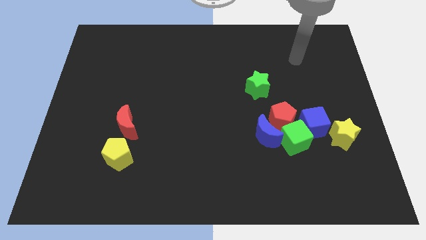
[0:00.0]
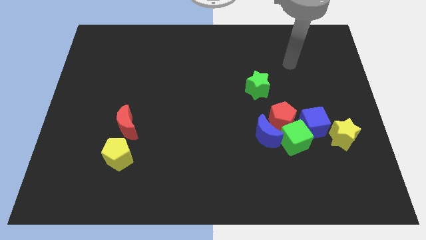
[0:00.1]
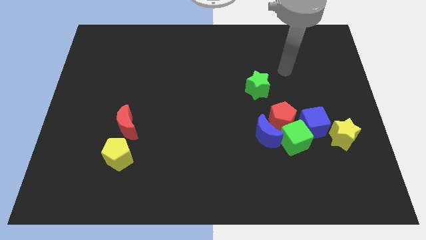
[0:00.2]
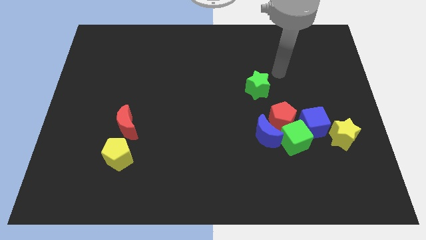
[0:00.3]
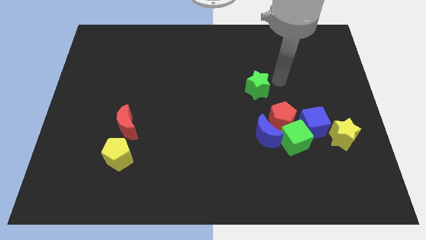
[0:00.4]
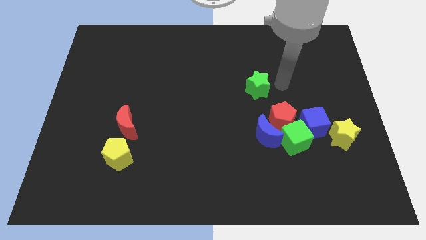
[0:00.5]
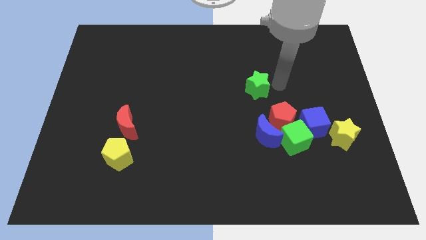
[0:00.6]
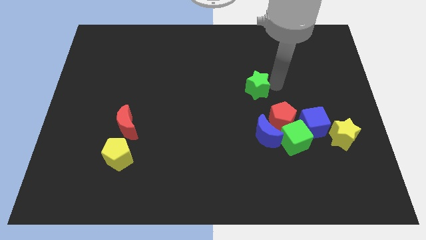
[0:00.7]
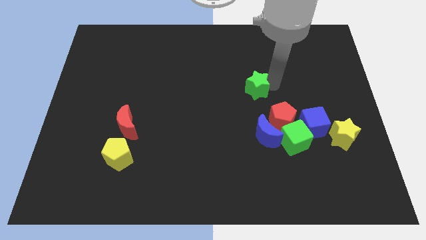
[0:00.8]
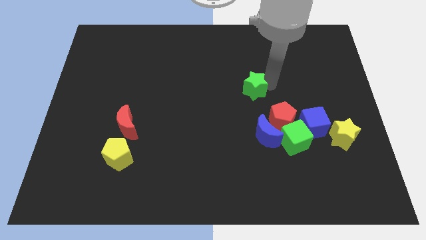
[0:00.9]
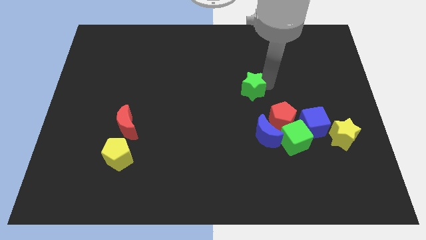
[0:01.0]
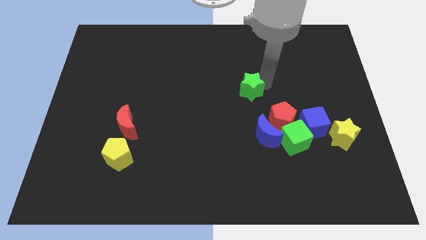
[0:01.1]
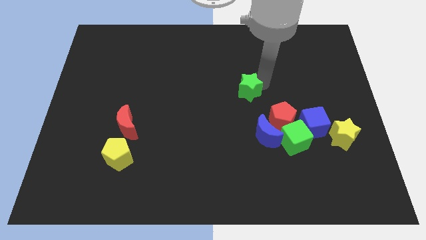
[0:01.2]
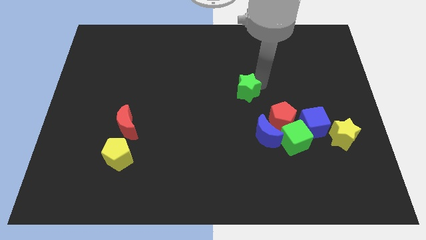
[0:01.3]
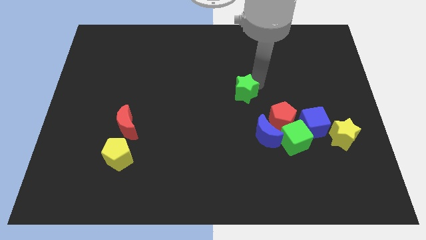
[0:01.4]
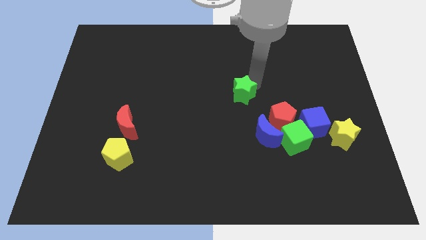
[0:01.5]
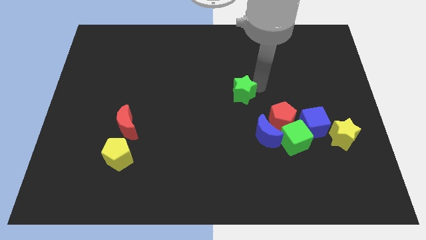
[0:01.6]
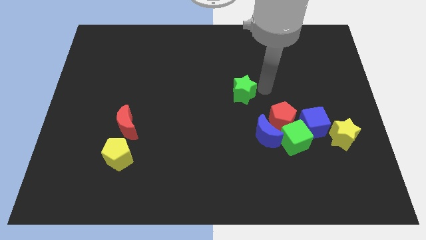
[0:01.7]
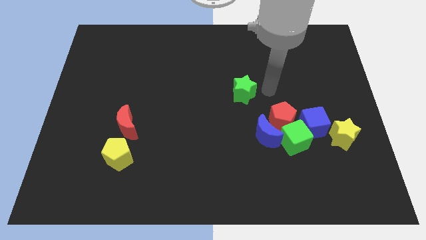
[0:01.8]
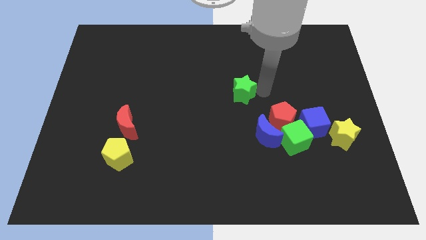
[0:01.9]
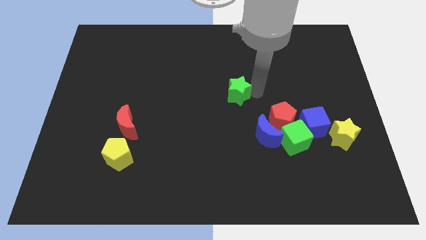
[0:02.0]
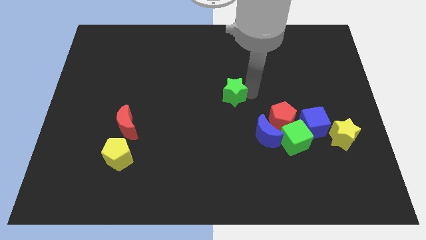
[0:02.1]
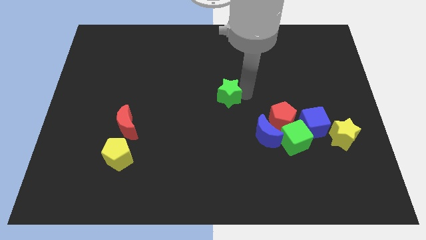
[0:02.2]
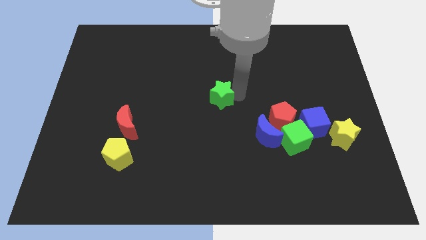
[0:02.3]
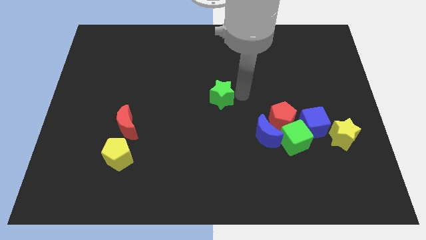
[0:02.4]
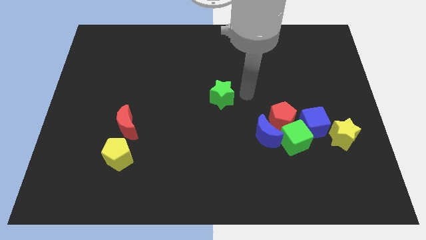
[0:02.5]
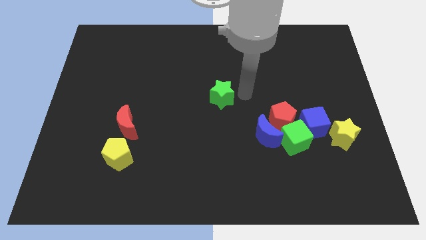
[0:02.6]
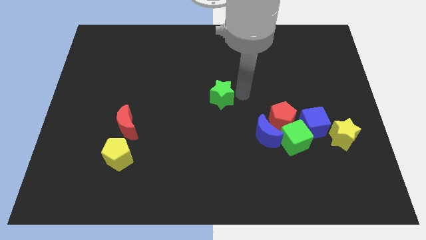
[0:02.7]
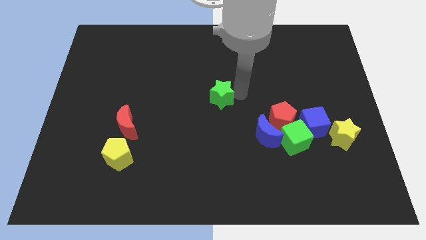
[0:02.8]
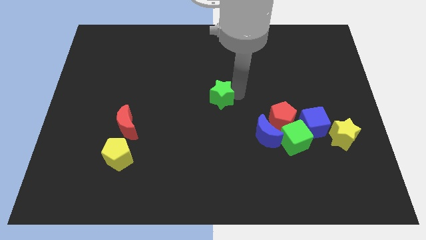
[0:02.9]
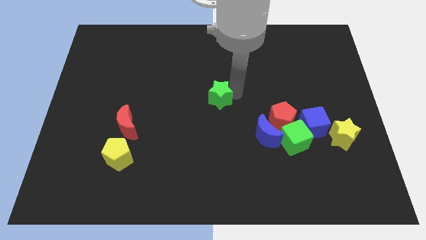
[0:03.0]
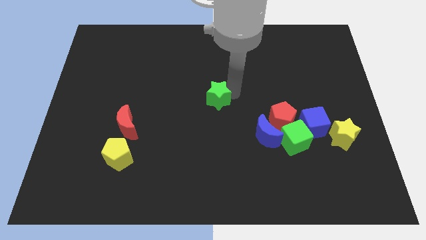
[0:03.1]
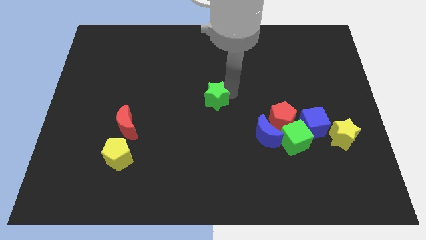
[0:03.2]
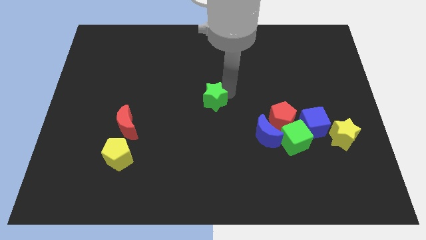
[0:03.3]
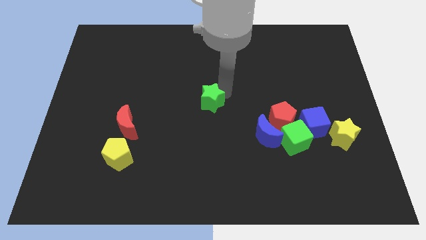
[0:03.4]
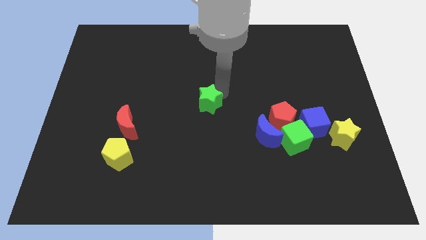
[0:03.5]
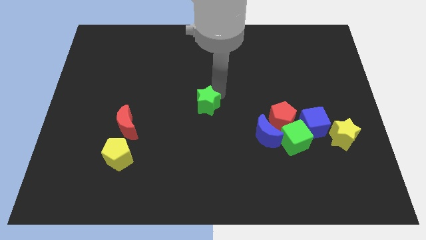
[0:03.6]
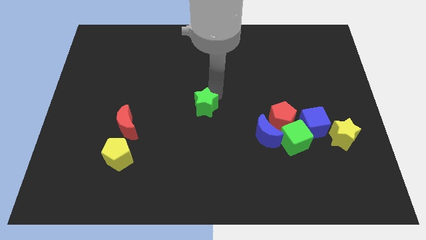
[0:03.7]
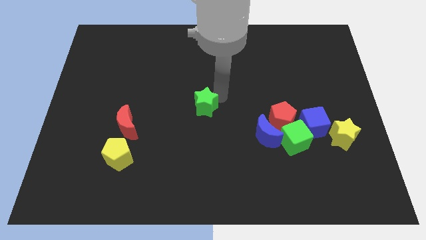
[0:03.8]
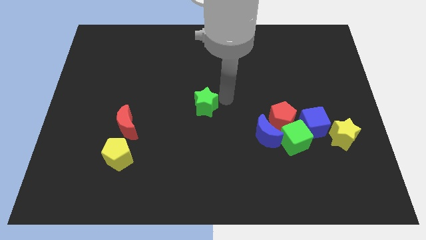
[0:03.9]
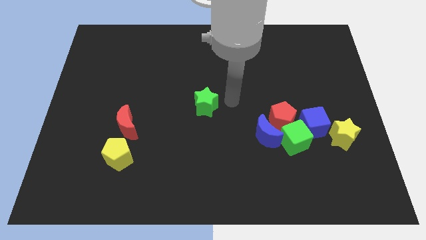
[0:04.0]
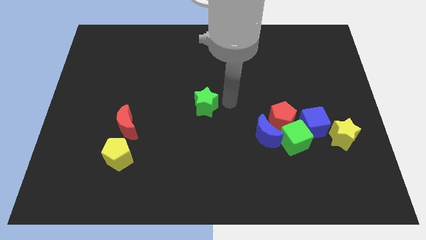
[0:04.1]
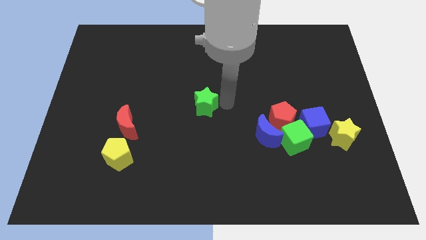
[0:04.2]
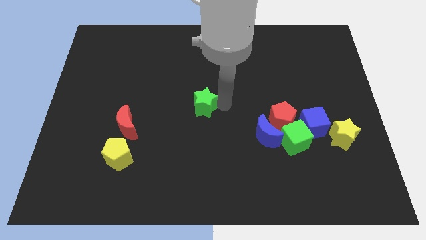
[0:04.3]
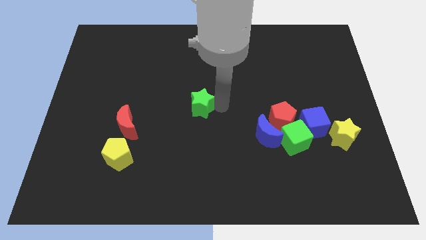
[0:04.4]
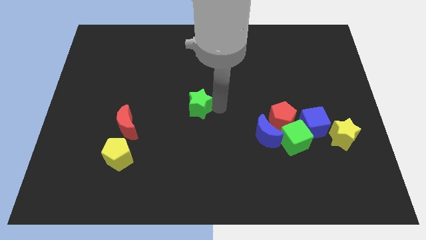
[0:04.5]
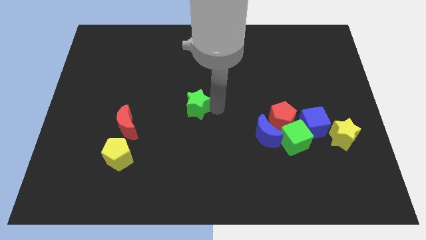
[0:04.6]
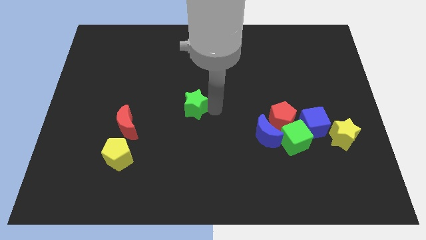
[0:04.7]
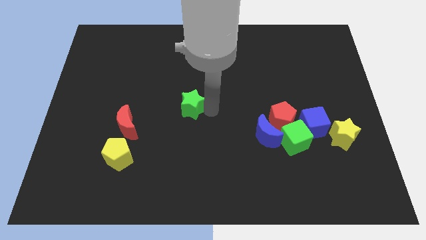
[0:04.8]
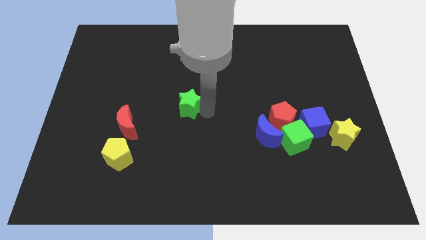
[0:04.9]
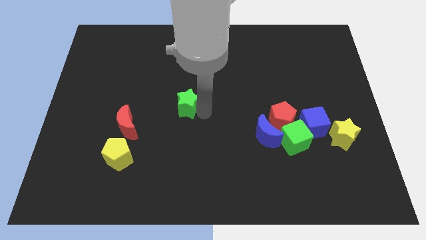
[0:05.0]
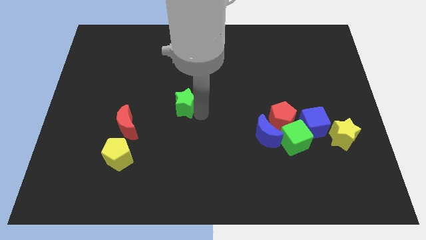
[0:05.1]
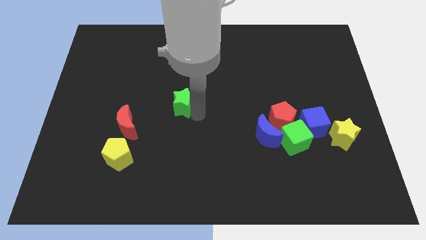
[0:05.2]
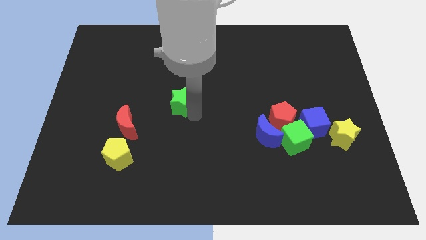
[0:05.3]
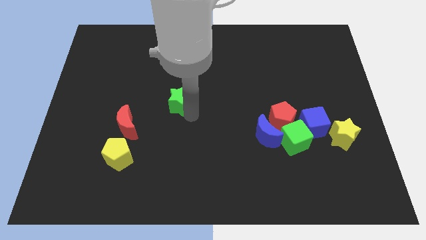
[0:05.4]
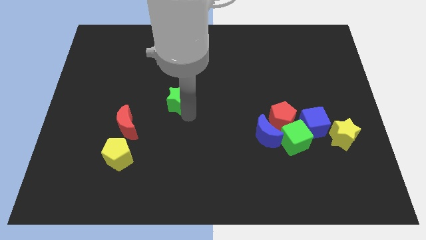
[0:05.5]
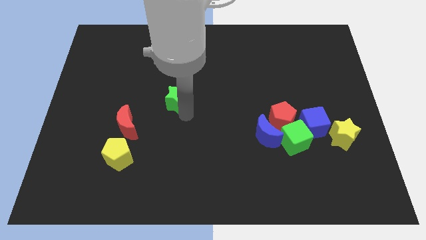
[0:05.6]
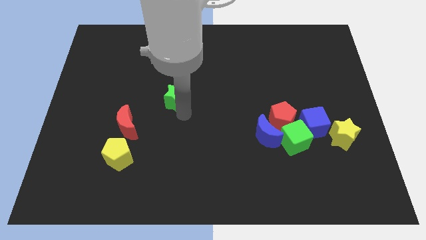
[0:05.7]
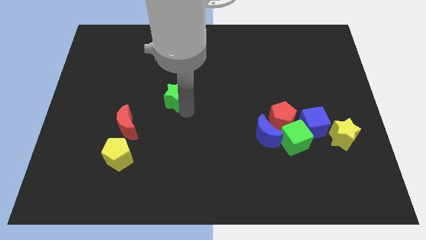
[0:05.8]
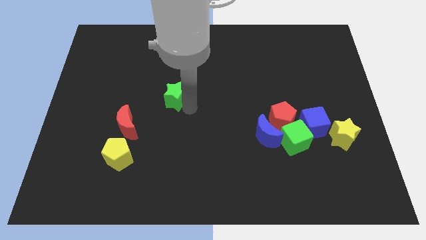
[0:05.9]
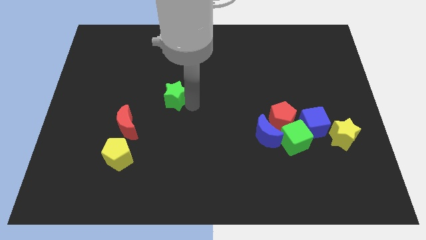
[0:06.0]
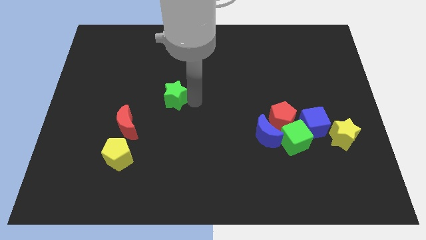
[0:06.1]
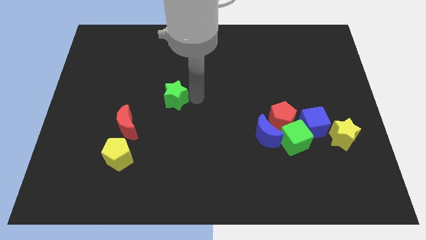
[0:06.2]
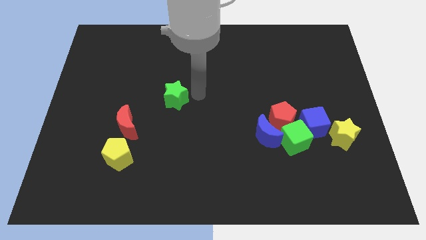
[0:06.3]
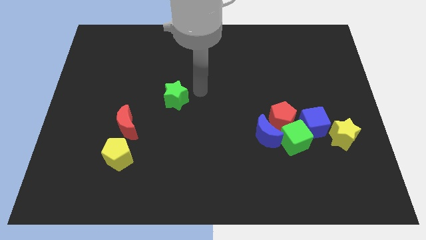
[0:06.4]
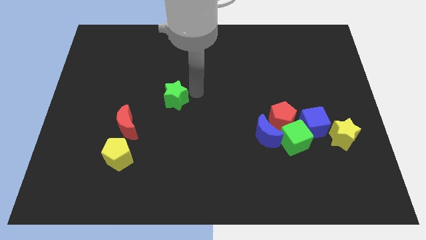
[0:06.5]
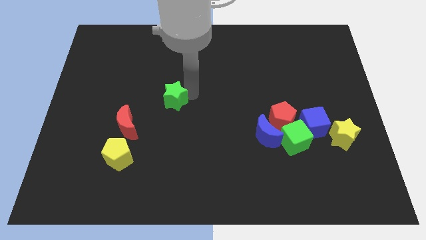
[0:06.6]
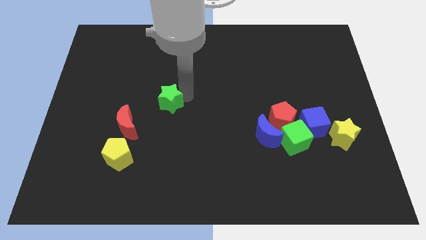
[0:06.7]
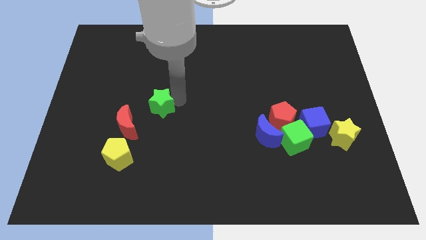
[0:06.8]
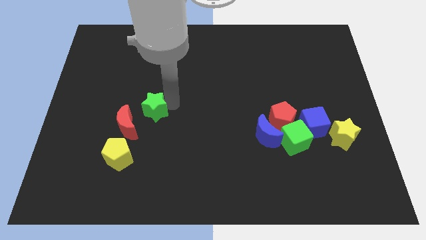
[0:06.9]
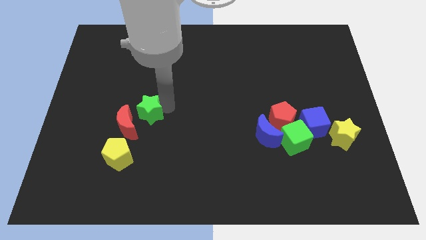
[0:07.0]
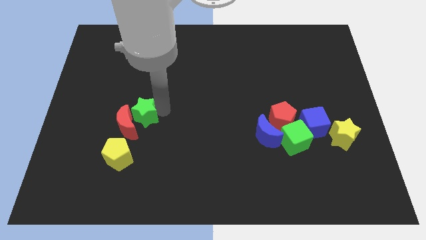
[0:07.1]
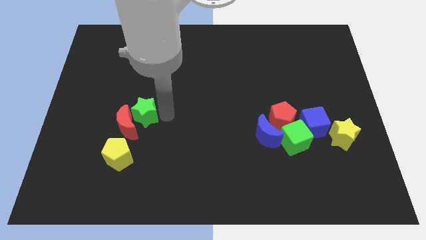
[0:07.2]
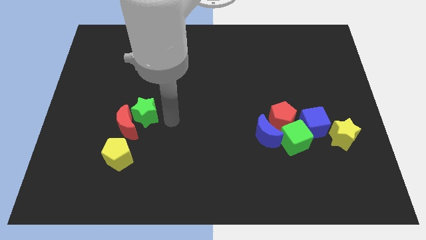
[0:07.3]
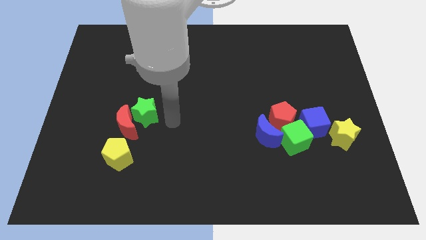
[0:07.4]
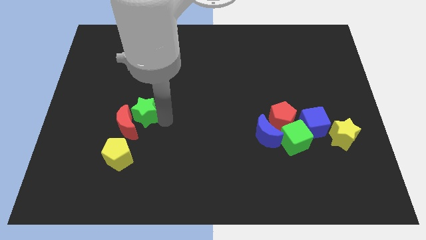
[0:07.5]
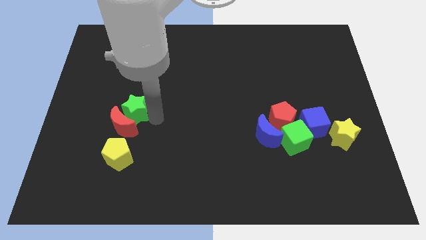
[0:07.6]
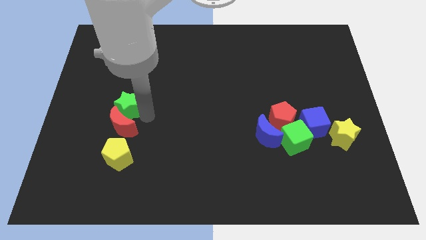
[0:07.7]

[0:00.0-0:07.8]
put the green star to the top left side of the red moon
